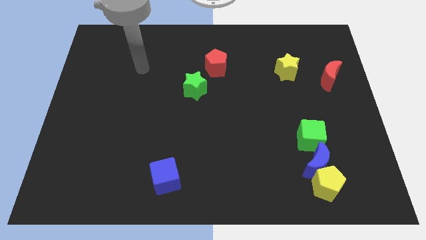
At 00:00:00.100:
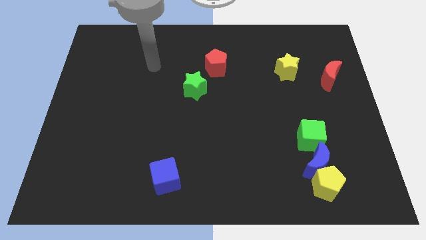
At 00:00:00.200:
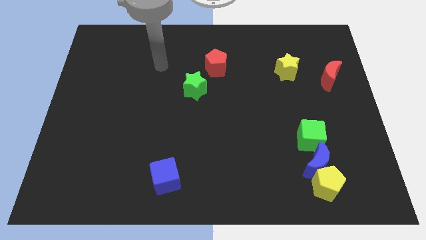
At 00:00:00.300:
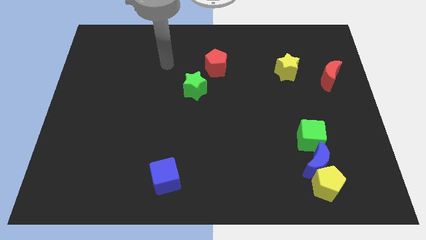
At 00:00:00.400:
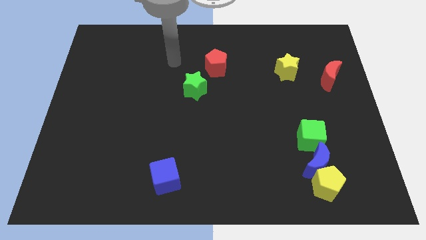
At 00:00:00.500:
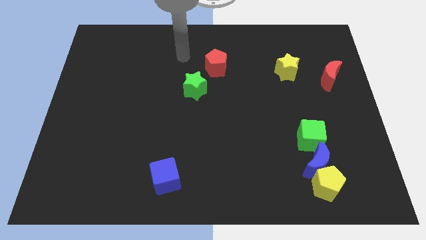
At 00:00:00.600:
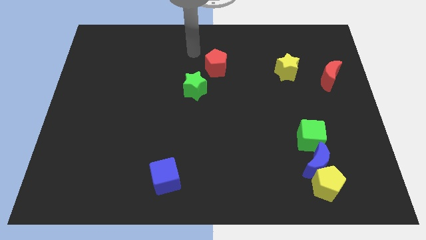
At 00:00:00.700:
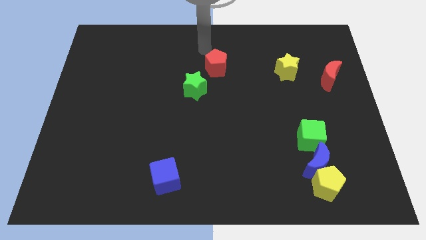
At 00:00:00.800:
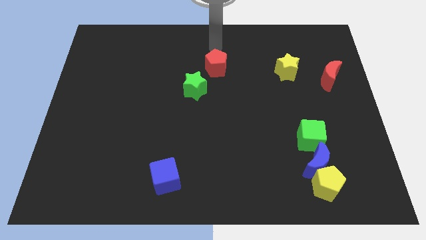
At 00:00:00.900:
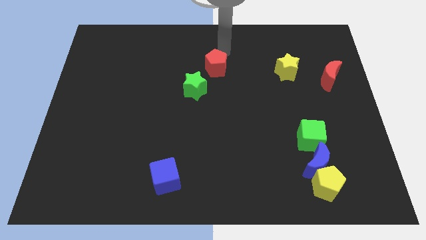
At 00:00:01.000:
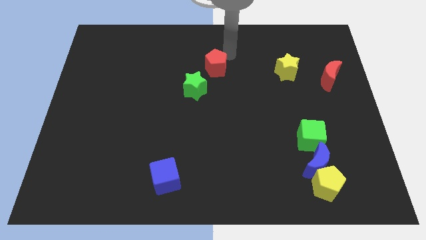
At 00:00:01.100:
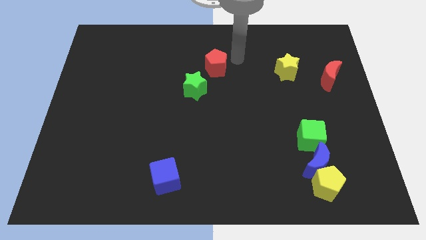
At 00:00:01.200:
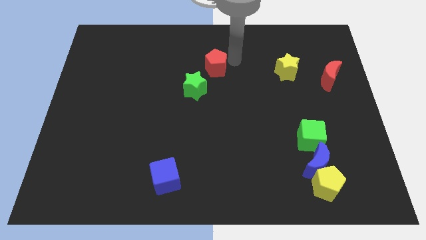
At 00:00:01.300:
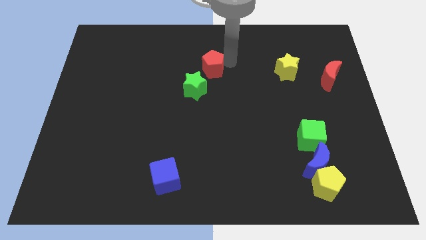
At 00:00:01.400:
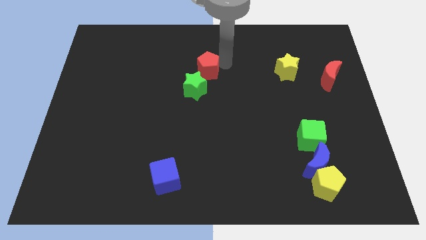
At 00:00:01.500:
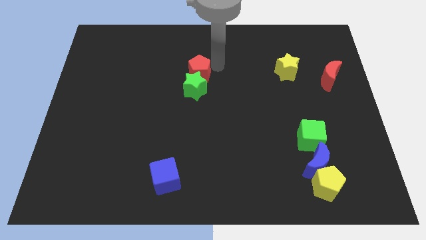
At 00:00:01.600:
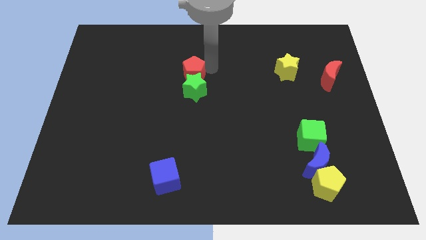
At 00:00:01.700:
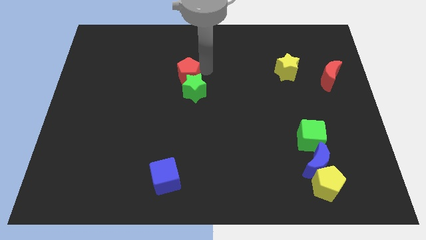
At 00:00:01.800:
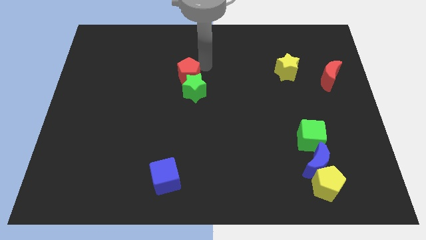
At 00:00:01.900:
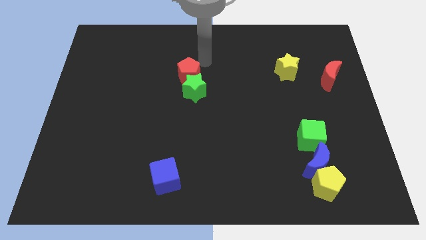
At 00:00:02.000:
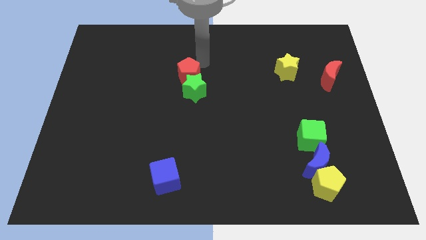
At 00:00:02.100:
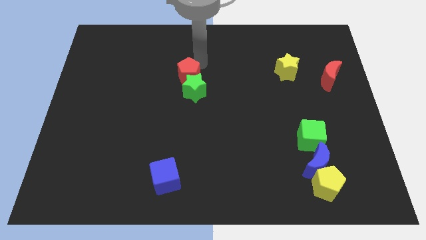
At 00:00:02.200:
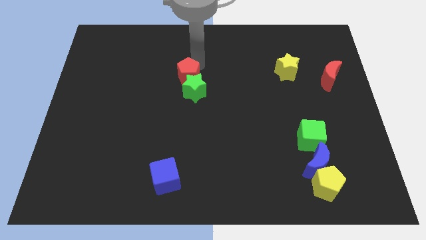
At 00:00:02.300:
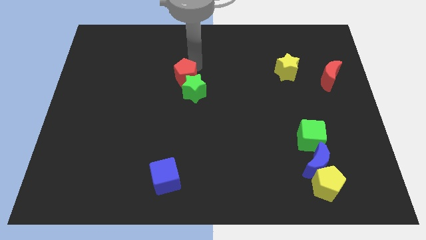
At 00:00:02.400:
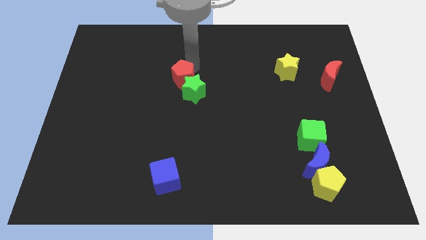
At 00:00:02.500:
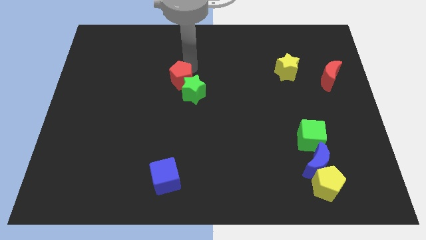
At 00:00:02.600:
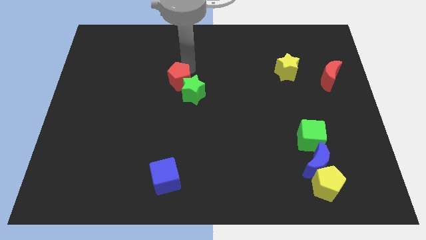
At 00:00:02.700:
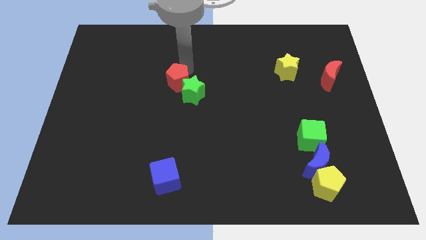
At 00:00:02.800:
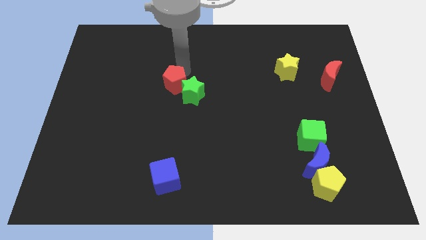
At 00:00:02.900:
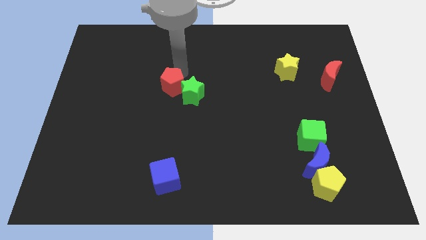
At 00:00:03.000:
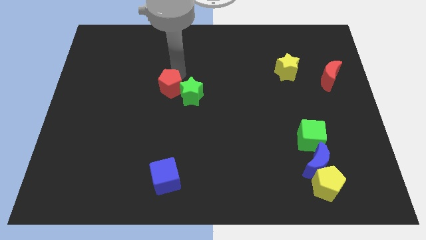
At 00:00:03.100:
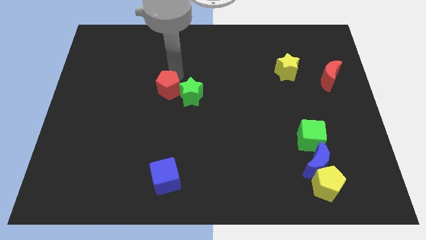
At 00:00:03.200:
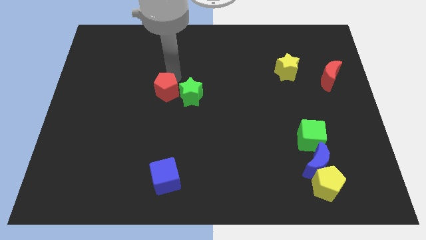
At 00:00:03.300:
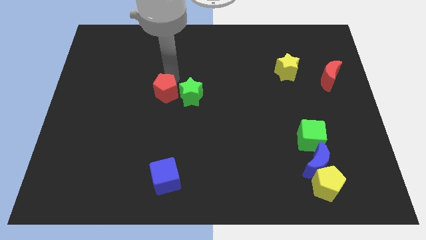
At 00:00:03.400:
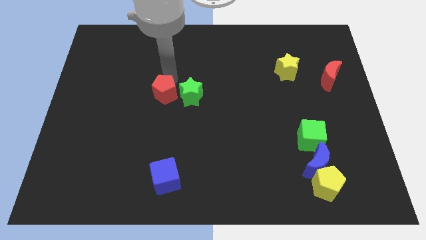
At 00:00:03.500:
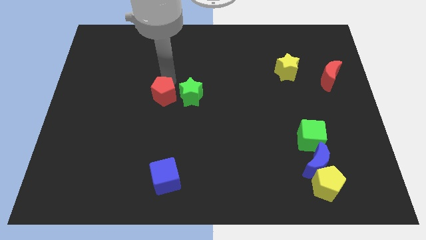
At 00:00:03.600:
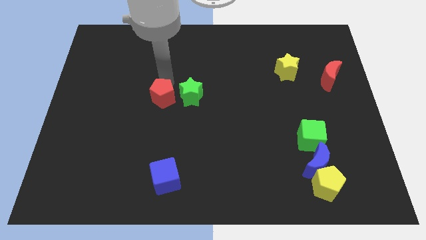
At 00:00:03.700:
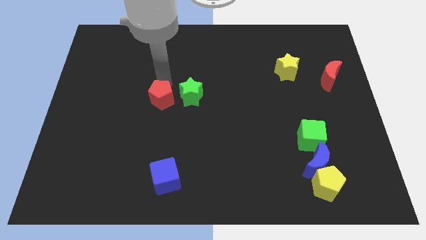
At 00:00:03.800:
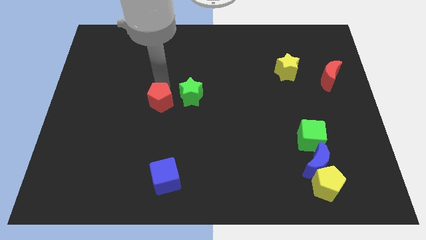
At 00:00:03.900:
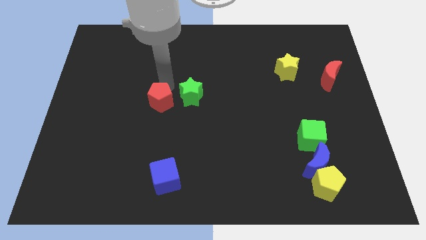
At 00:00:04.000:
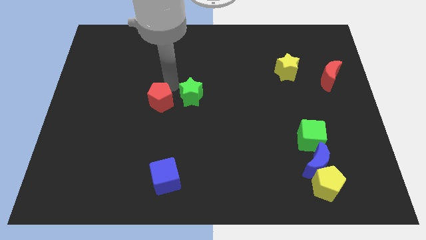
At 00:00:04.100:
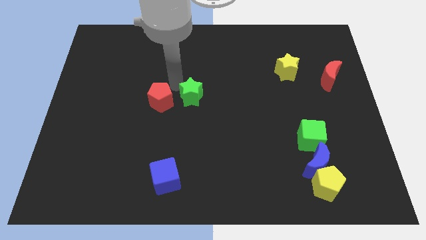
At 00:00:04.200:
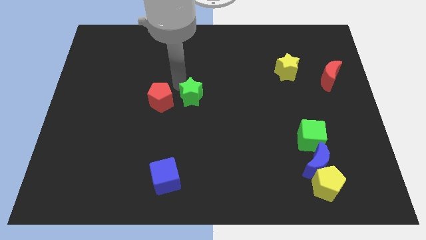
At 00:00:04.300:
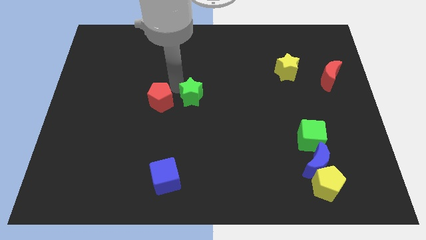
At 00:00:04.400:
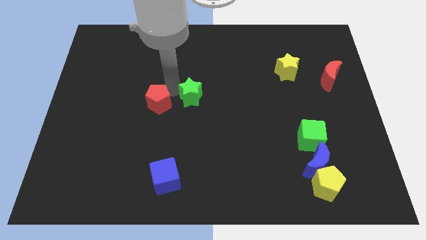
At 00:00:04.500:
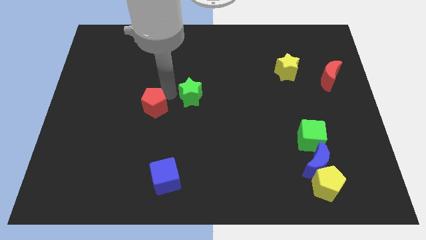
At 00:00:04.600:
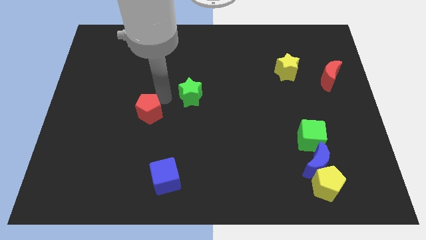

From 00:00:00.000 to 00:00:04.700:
slide the red pentagon downwards and then left

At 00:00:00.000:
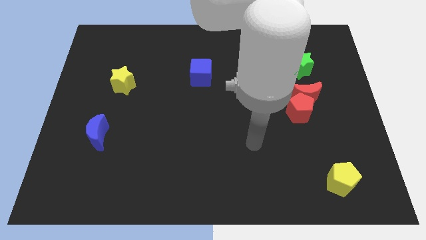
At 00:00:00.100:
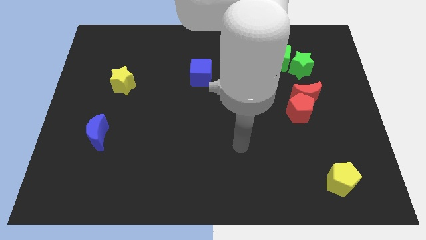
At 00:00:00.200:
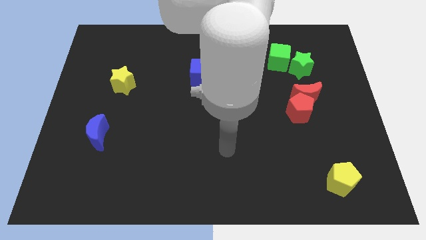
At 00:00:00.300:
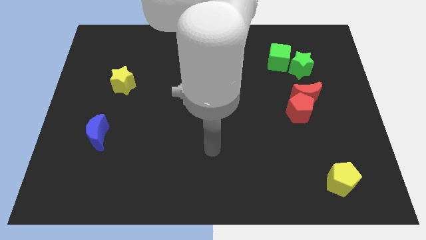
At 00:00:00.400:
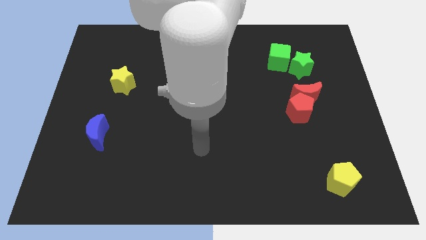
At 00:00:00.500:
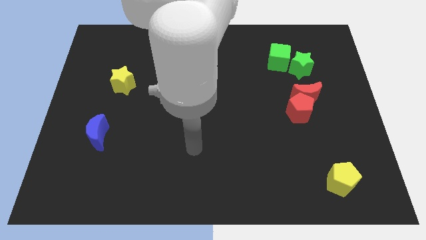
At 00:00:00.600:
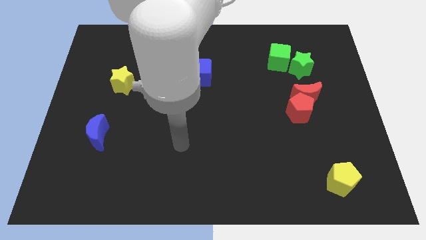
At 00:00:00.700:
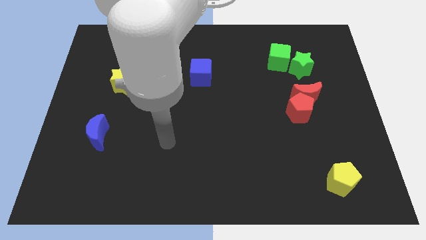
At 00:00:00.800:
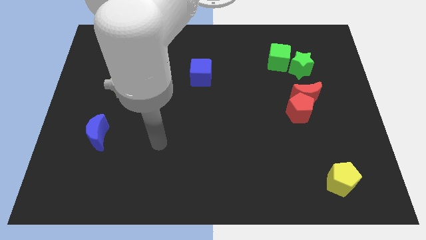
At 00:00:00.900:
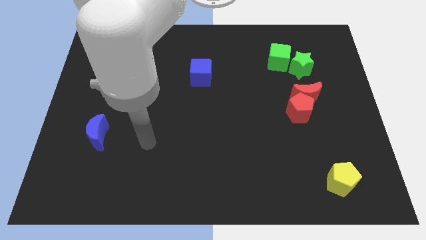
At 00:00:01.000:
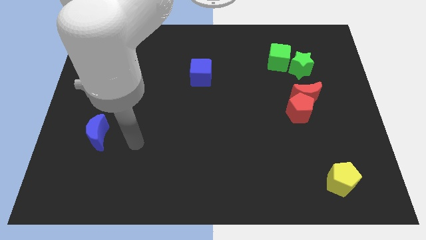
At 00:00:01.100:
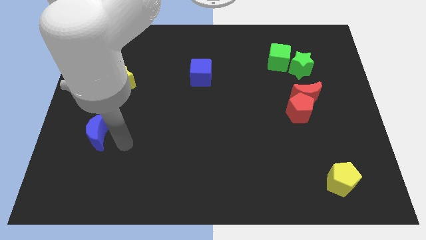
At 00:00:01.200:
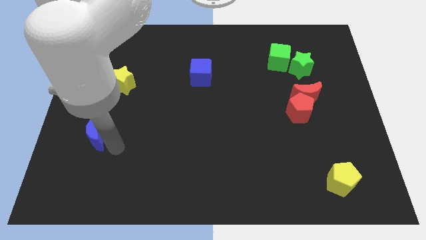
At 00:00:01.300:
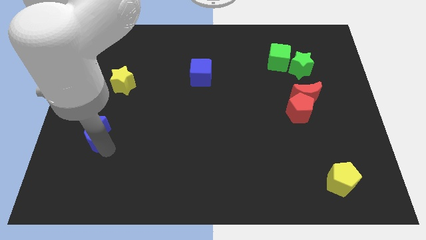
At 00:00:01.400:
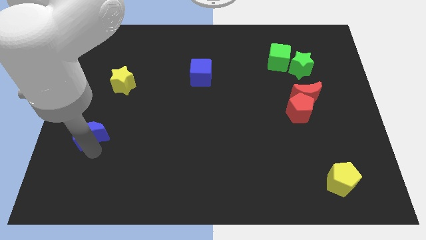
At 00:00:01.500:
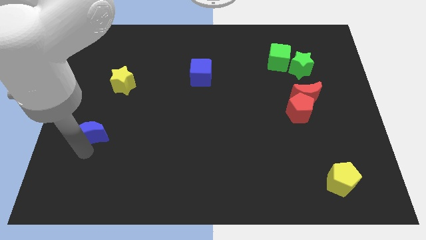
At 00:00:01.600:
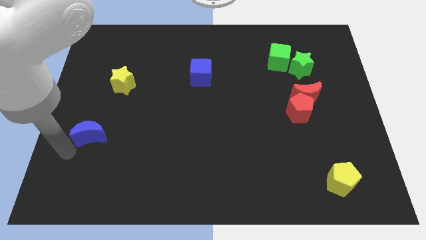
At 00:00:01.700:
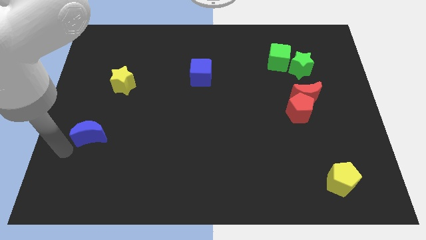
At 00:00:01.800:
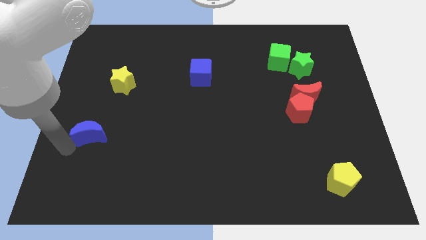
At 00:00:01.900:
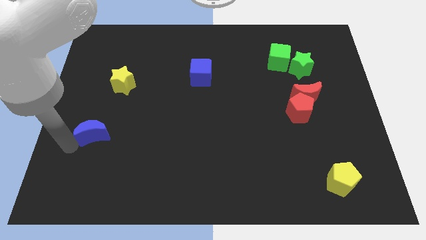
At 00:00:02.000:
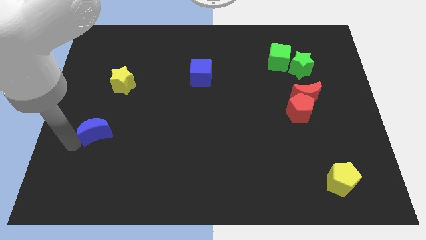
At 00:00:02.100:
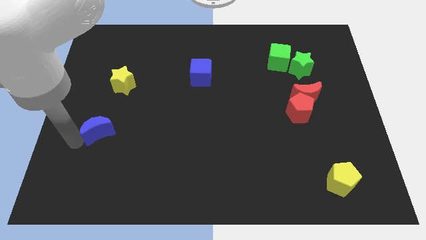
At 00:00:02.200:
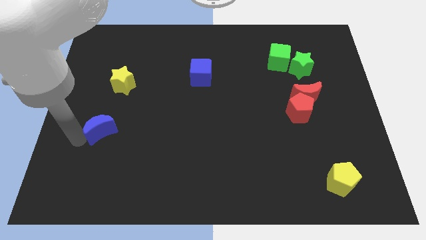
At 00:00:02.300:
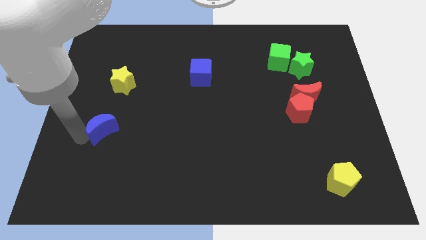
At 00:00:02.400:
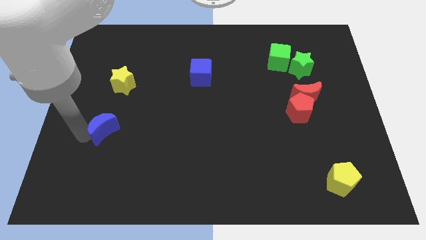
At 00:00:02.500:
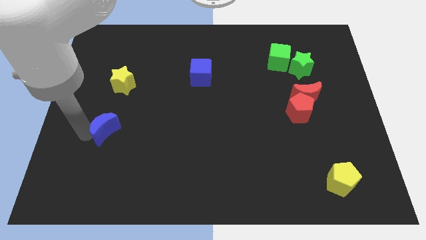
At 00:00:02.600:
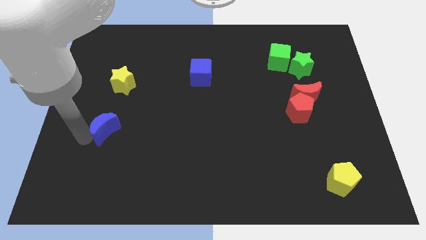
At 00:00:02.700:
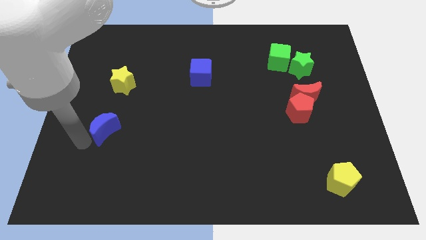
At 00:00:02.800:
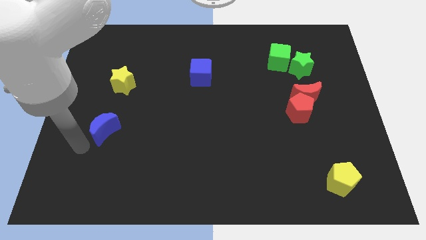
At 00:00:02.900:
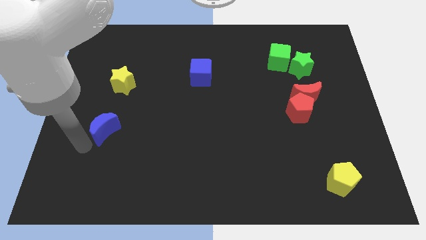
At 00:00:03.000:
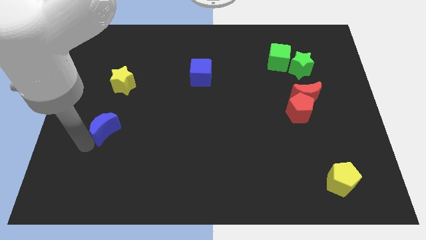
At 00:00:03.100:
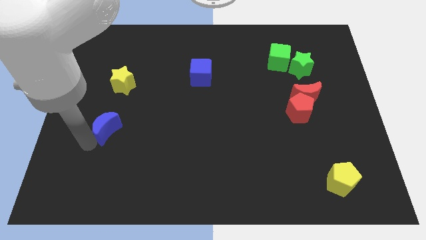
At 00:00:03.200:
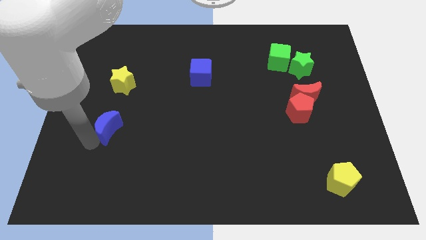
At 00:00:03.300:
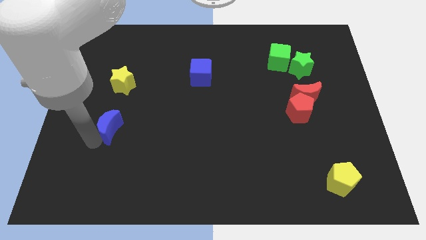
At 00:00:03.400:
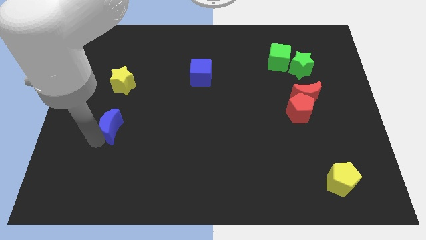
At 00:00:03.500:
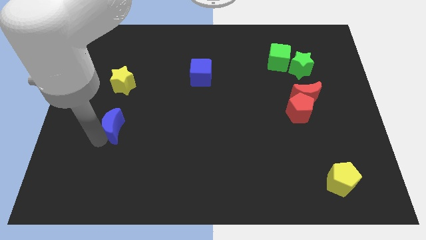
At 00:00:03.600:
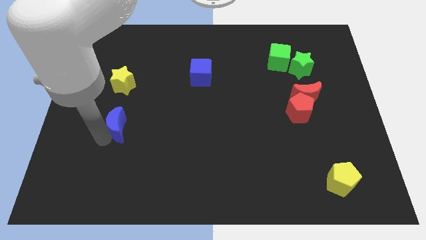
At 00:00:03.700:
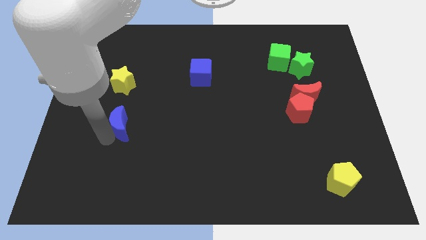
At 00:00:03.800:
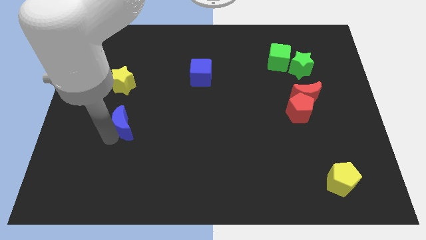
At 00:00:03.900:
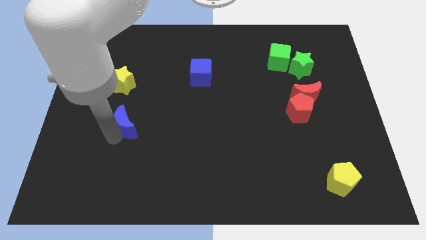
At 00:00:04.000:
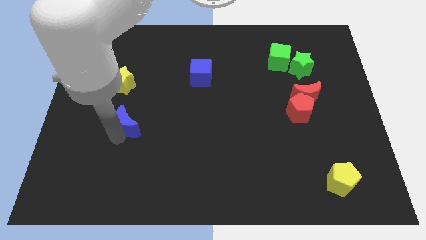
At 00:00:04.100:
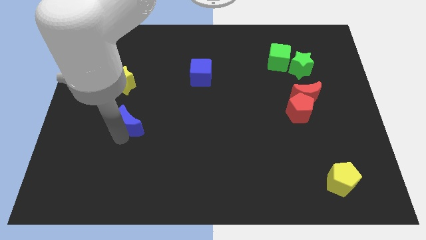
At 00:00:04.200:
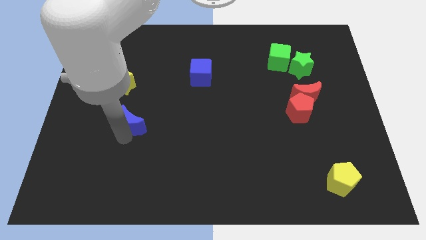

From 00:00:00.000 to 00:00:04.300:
push the blue moon diagonally up and to the right slightly
